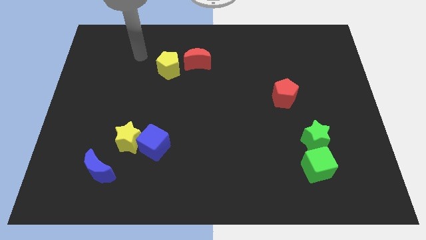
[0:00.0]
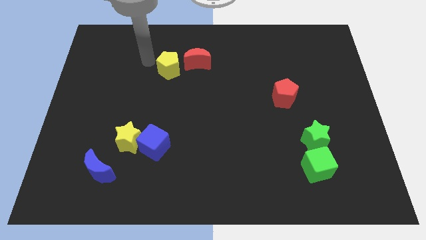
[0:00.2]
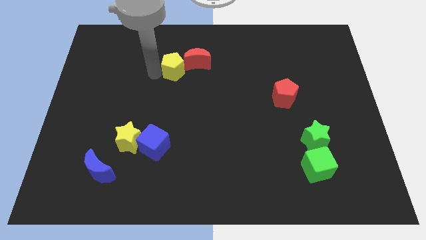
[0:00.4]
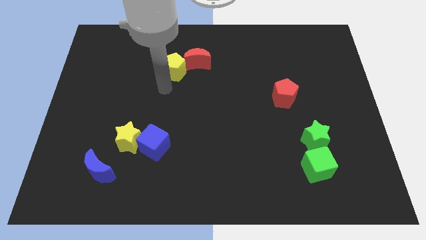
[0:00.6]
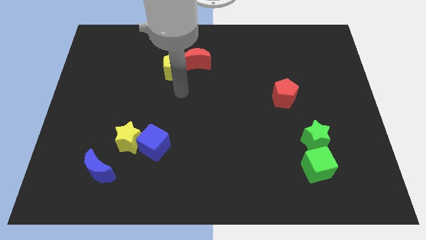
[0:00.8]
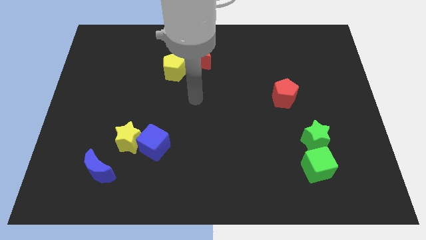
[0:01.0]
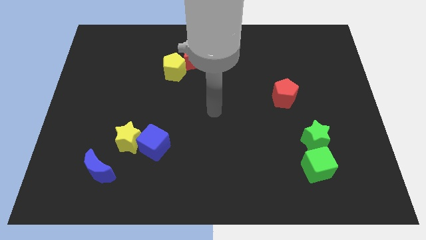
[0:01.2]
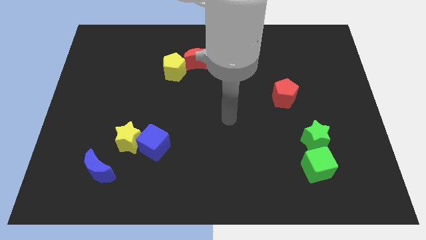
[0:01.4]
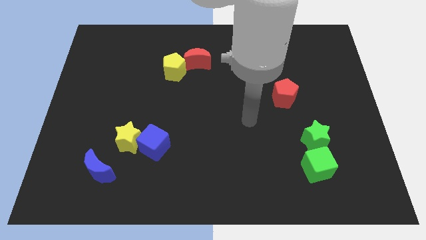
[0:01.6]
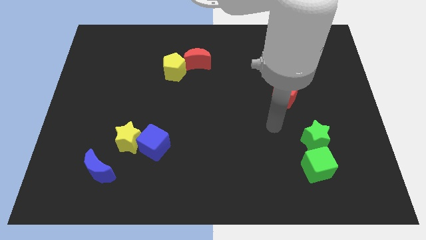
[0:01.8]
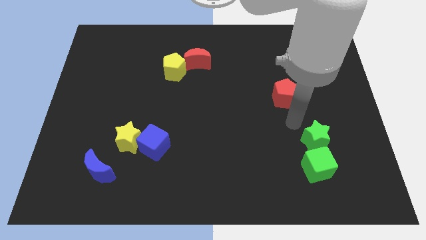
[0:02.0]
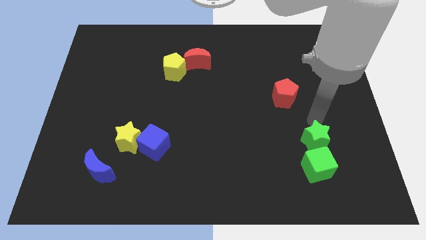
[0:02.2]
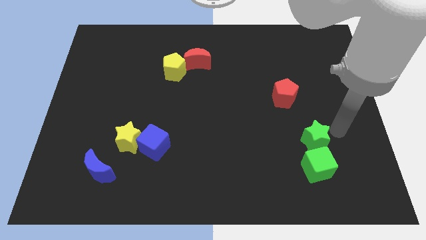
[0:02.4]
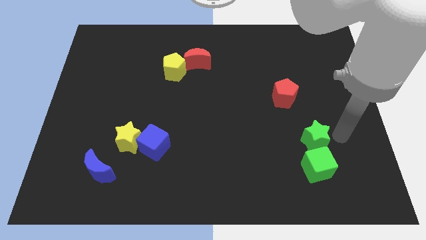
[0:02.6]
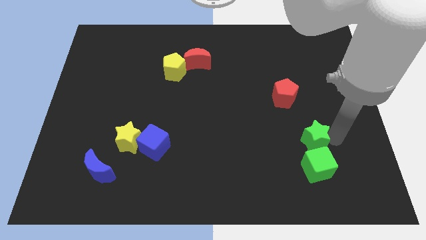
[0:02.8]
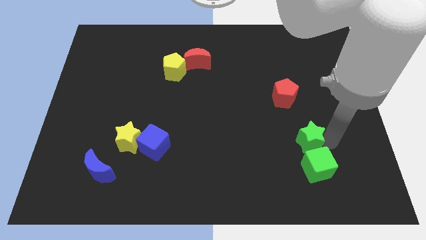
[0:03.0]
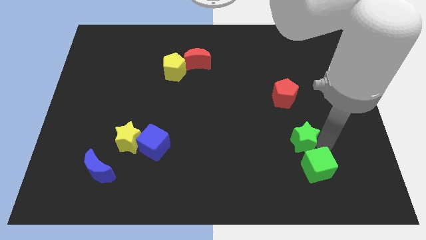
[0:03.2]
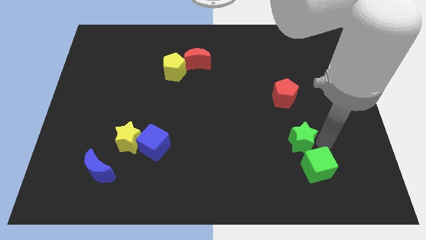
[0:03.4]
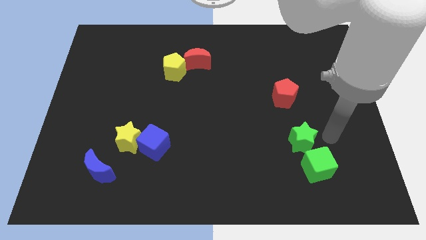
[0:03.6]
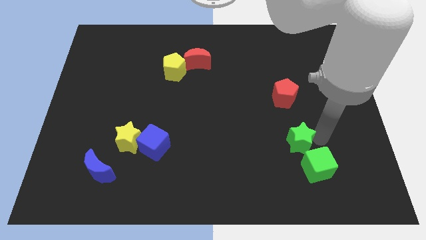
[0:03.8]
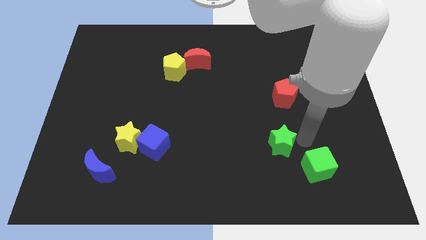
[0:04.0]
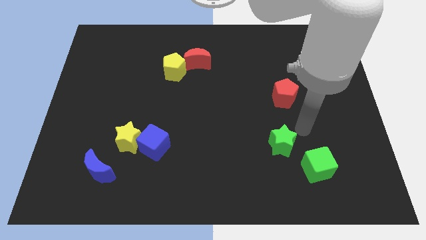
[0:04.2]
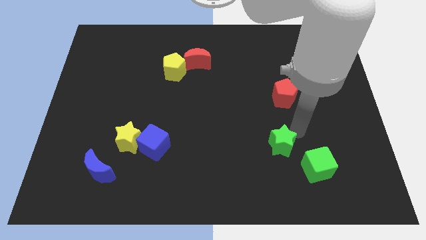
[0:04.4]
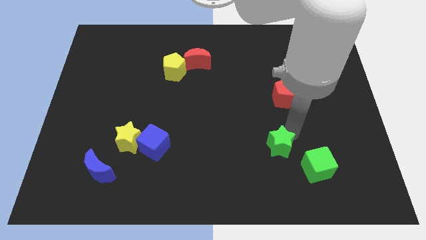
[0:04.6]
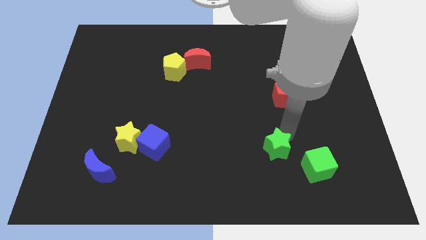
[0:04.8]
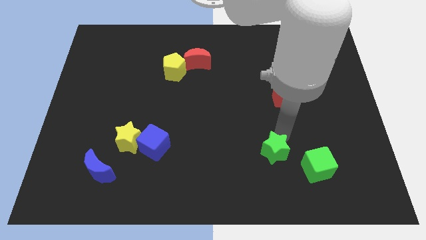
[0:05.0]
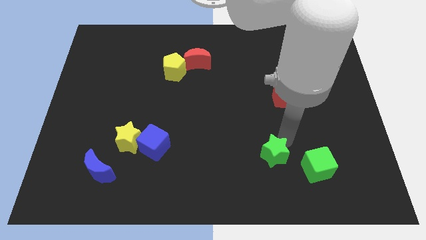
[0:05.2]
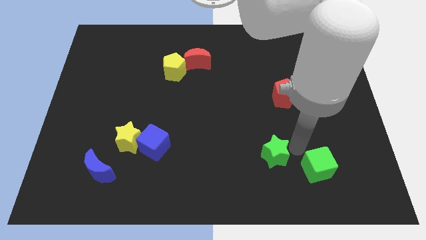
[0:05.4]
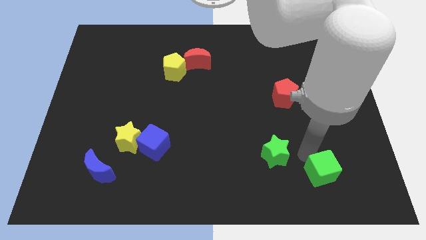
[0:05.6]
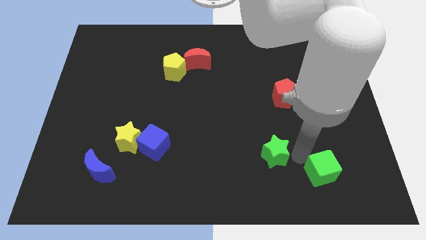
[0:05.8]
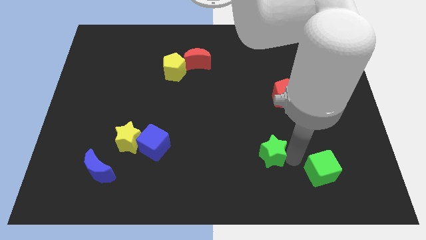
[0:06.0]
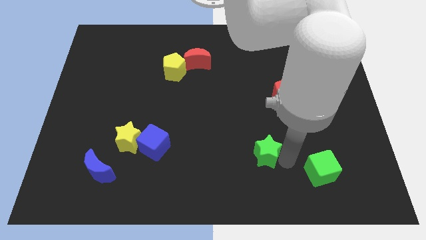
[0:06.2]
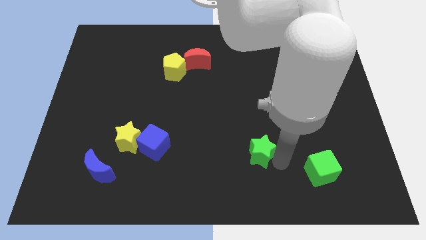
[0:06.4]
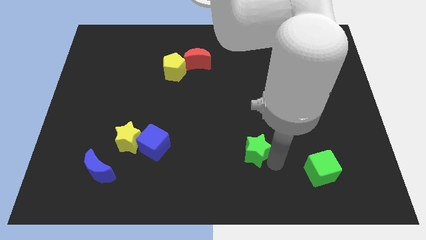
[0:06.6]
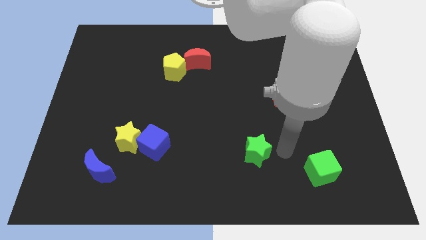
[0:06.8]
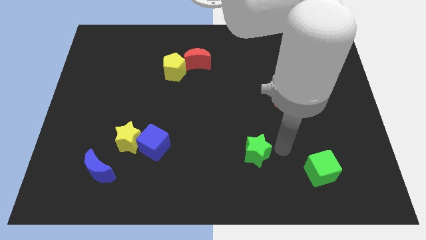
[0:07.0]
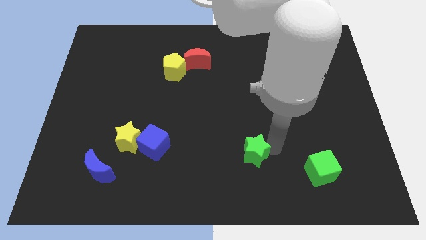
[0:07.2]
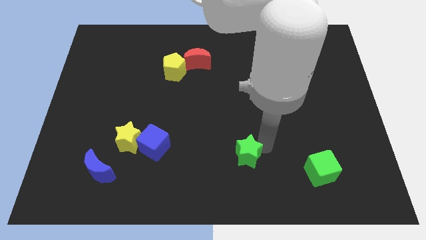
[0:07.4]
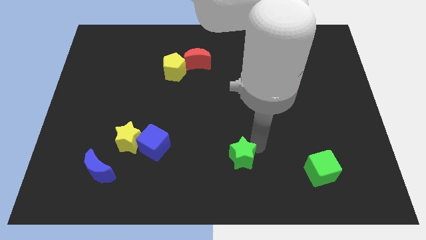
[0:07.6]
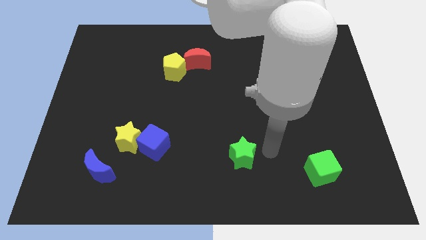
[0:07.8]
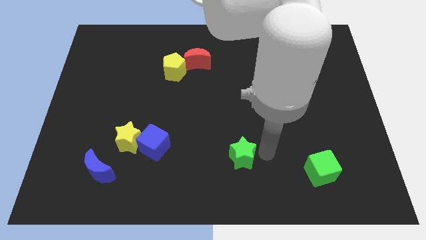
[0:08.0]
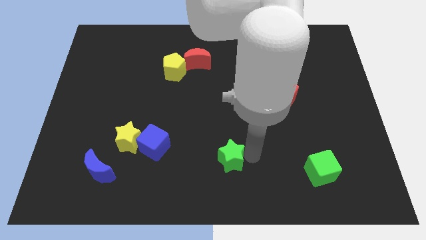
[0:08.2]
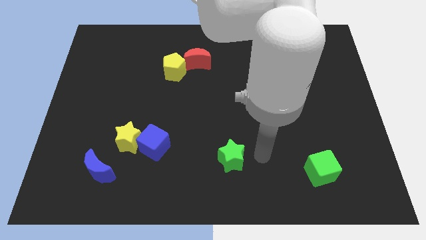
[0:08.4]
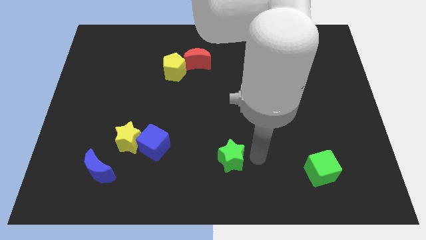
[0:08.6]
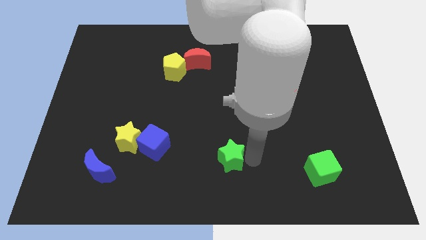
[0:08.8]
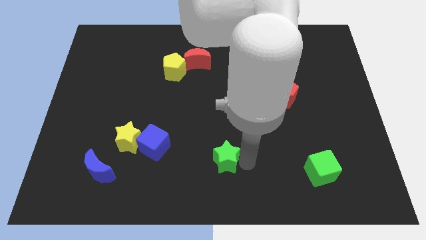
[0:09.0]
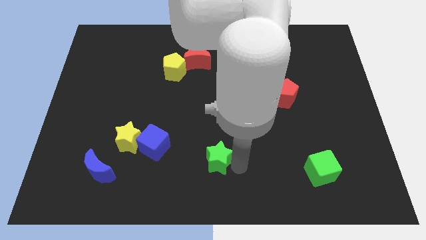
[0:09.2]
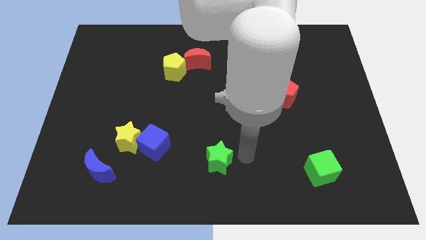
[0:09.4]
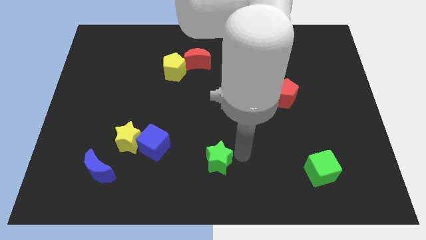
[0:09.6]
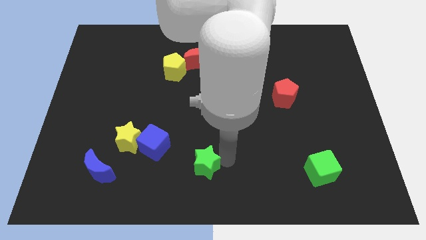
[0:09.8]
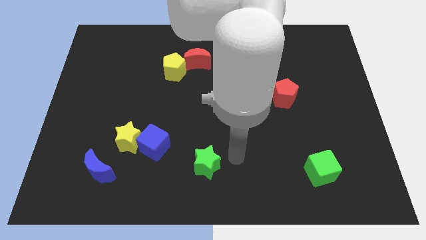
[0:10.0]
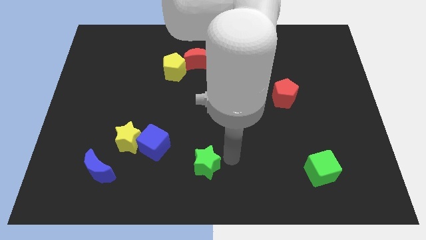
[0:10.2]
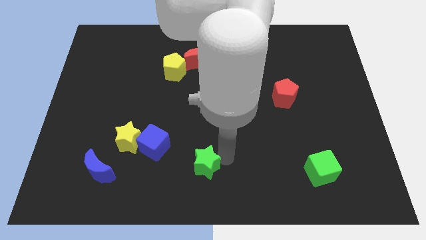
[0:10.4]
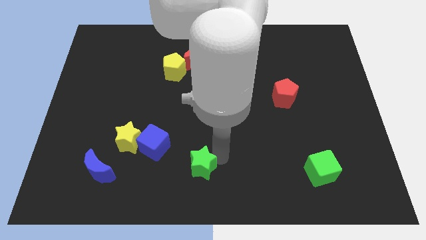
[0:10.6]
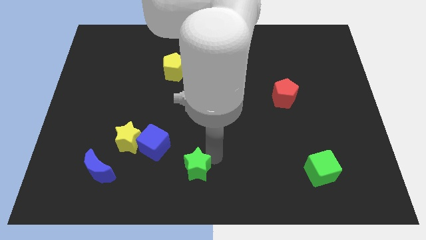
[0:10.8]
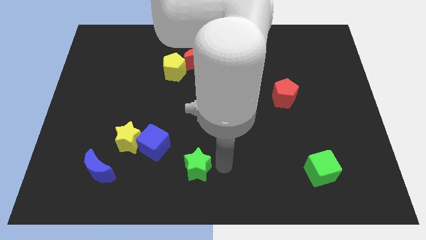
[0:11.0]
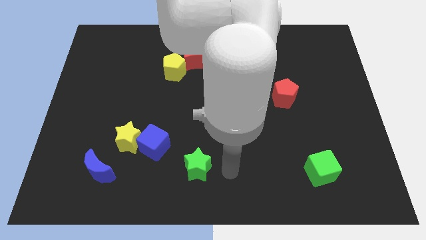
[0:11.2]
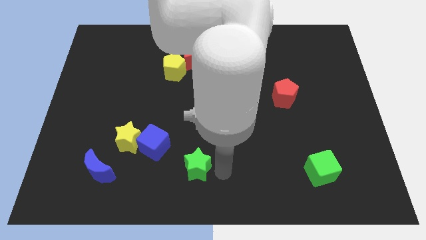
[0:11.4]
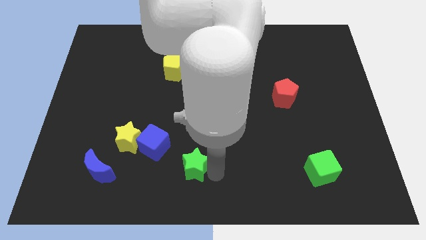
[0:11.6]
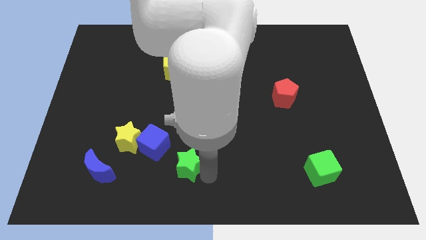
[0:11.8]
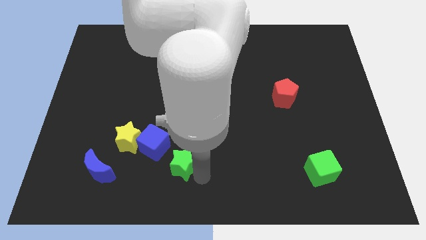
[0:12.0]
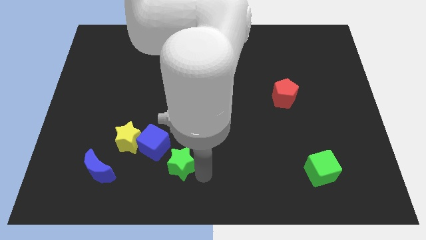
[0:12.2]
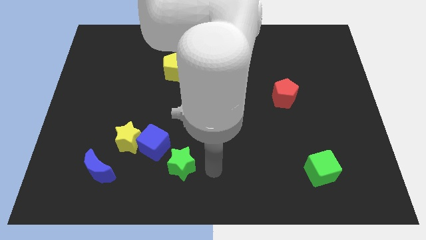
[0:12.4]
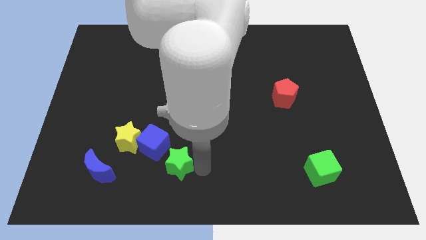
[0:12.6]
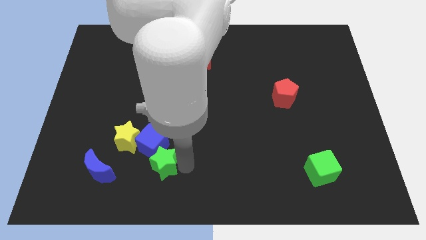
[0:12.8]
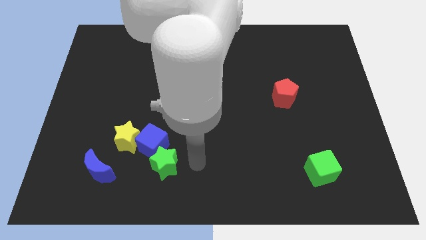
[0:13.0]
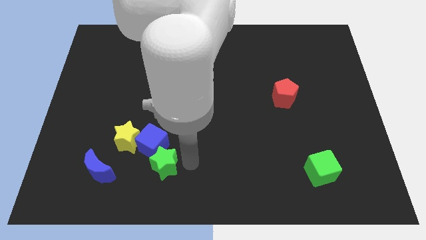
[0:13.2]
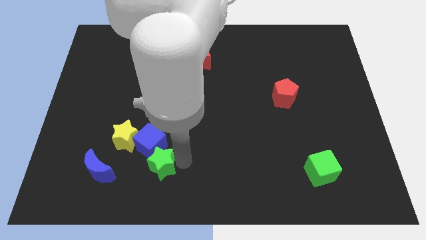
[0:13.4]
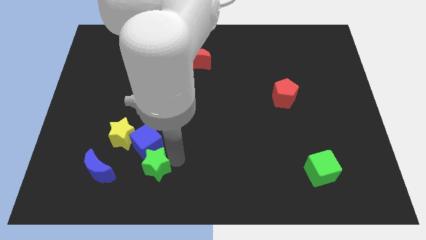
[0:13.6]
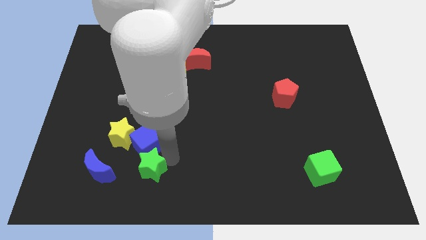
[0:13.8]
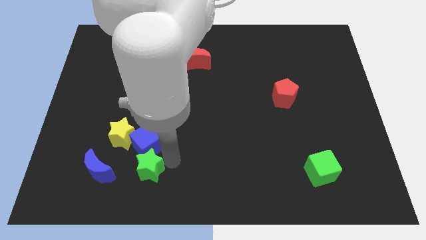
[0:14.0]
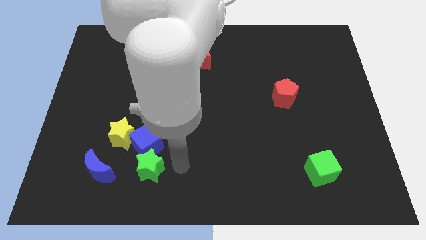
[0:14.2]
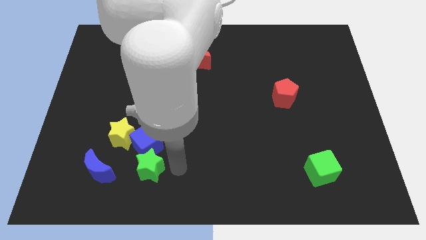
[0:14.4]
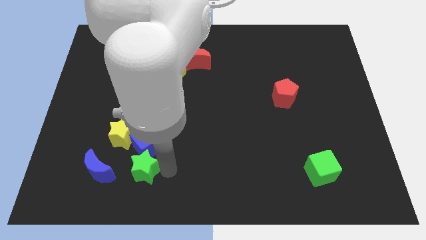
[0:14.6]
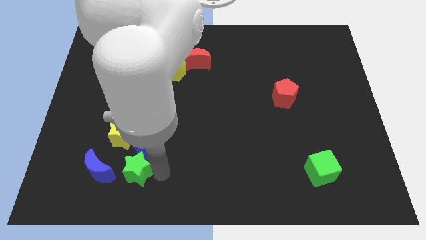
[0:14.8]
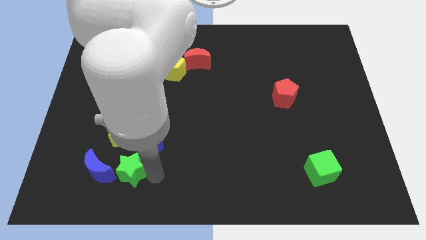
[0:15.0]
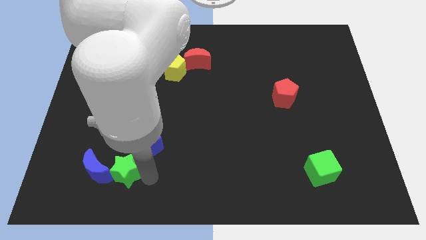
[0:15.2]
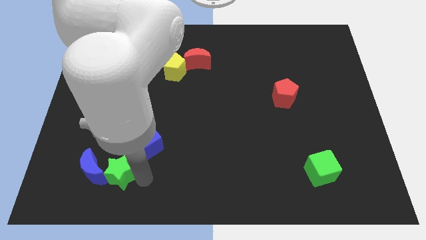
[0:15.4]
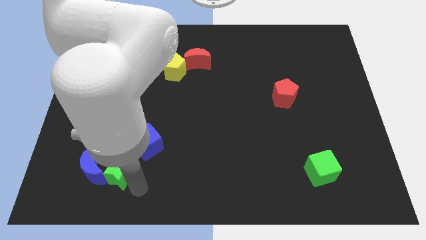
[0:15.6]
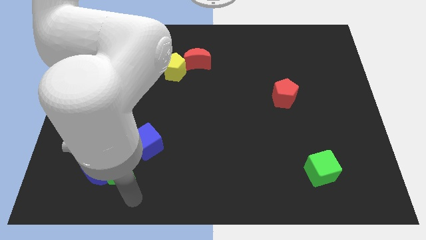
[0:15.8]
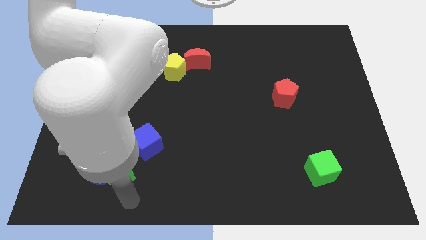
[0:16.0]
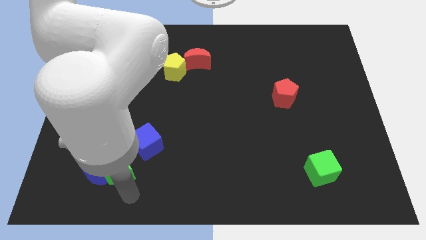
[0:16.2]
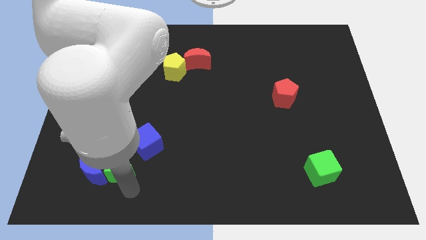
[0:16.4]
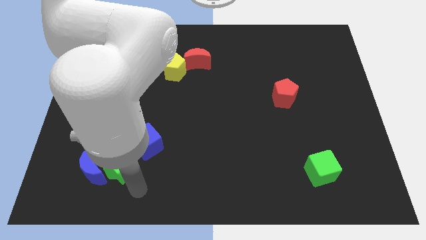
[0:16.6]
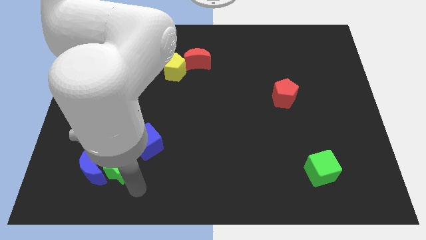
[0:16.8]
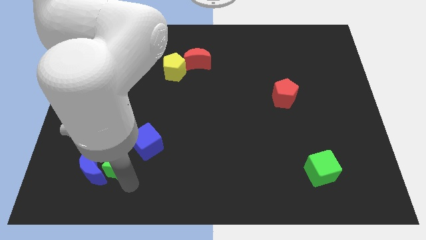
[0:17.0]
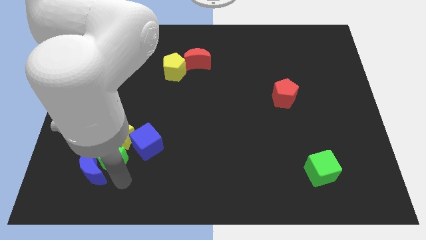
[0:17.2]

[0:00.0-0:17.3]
push the green star just left of the blue cube
